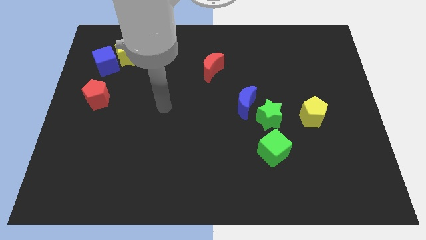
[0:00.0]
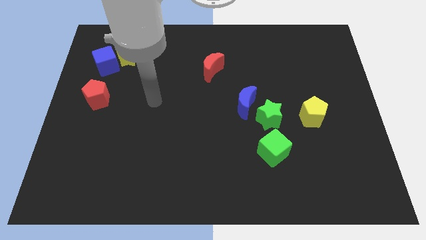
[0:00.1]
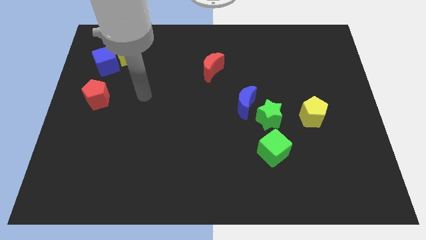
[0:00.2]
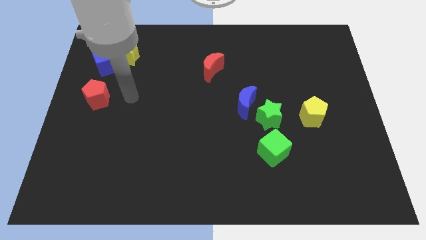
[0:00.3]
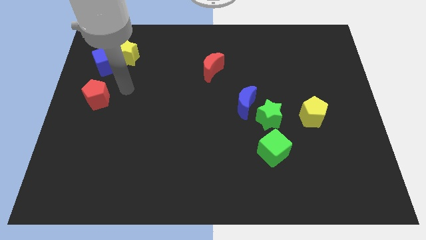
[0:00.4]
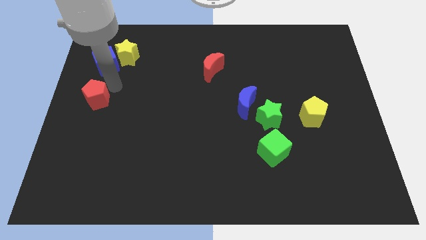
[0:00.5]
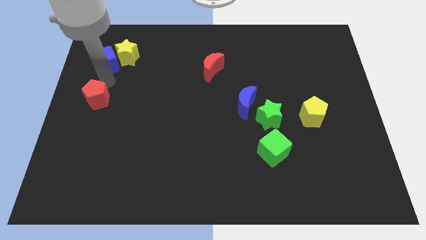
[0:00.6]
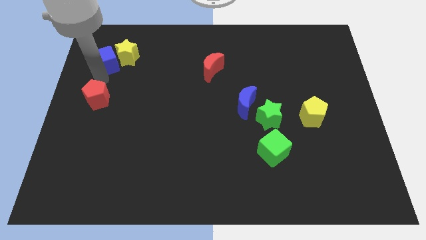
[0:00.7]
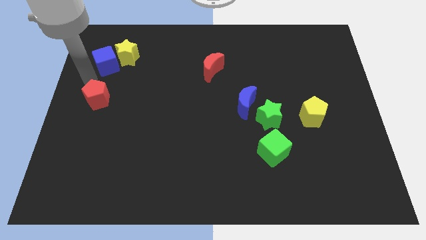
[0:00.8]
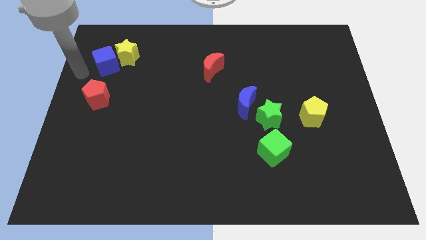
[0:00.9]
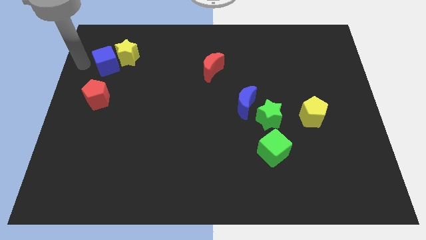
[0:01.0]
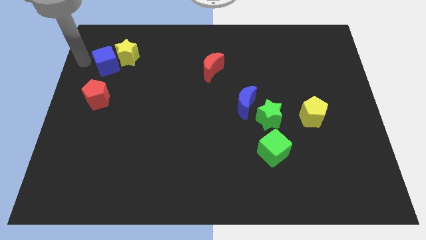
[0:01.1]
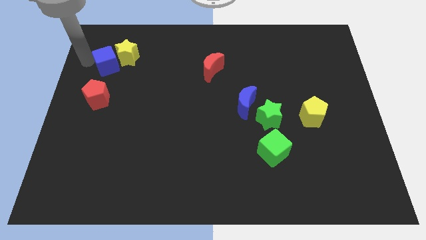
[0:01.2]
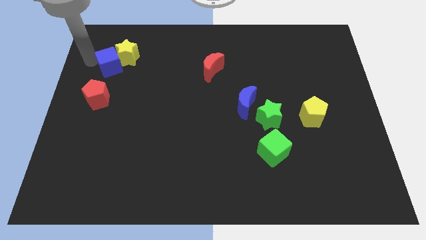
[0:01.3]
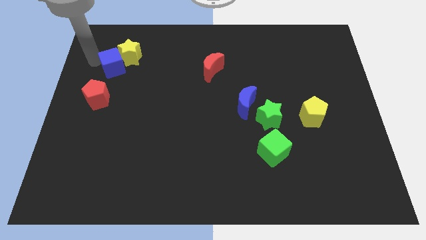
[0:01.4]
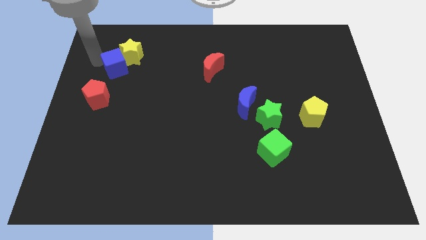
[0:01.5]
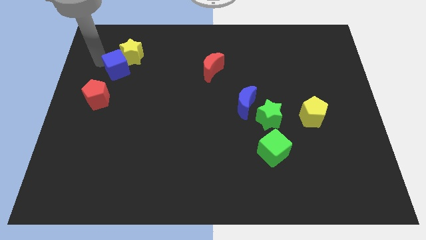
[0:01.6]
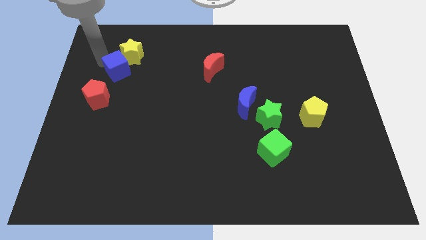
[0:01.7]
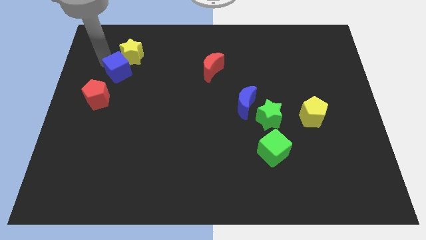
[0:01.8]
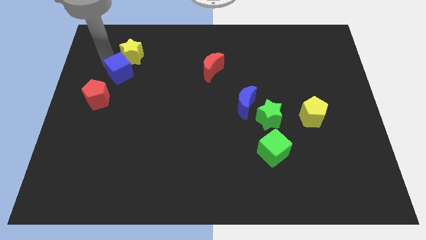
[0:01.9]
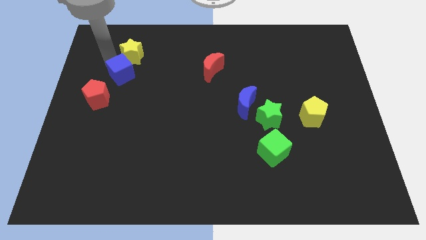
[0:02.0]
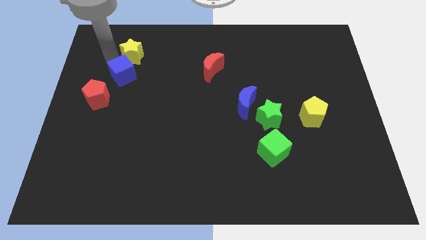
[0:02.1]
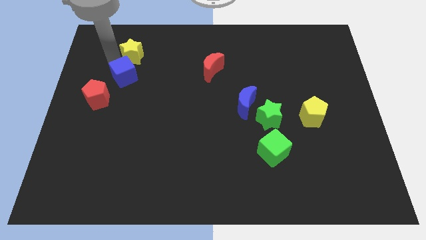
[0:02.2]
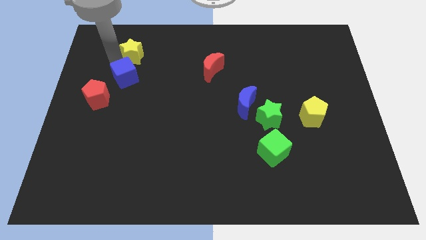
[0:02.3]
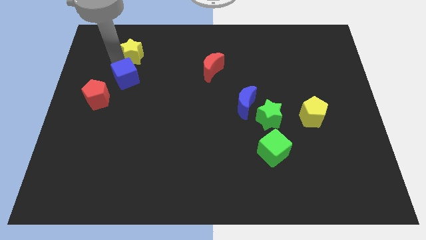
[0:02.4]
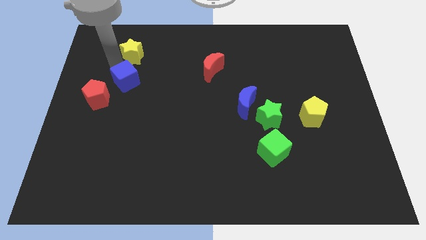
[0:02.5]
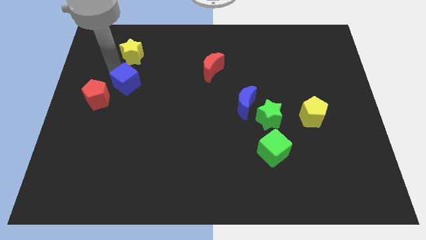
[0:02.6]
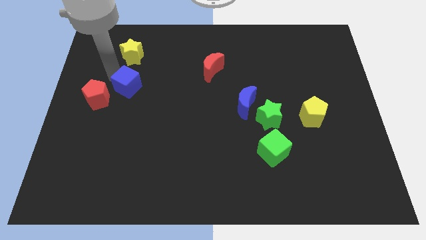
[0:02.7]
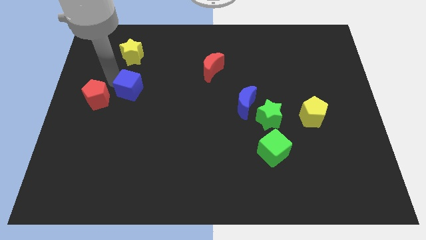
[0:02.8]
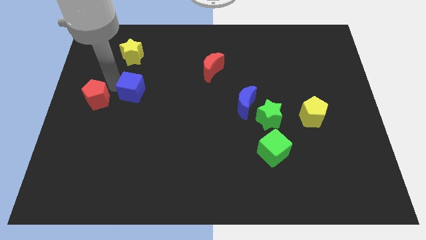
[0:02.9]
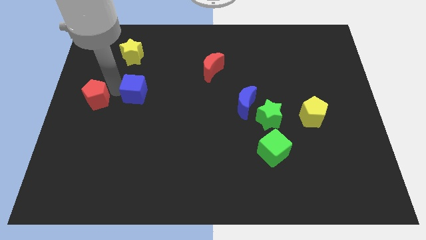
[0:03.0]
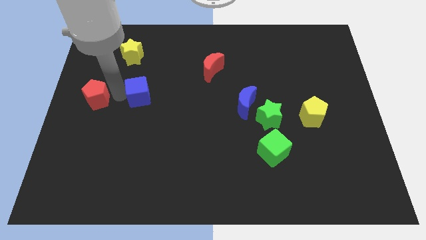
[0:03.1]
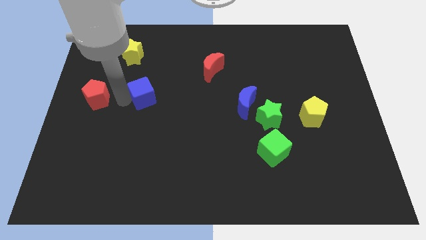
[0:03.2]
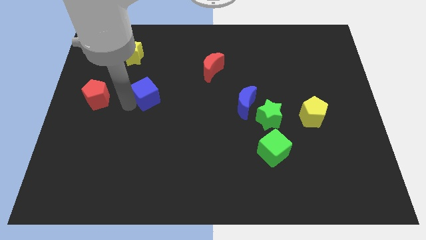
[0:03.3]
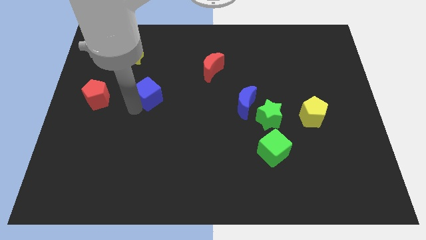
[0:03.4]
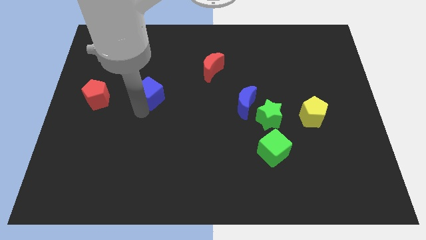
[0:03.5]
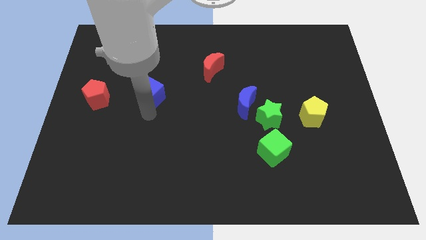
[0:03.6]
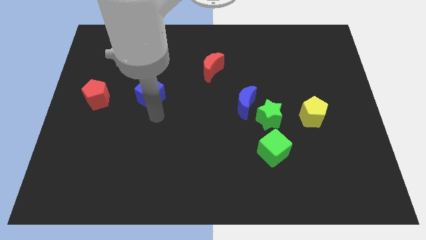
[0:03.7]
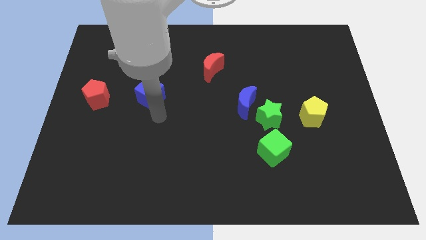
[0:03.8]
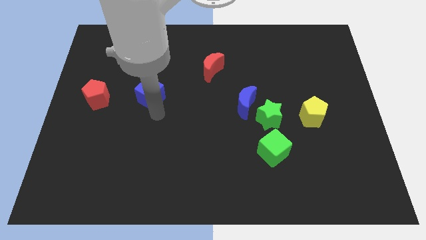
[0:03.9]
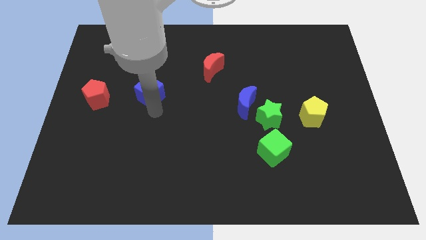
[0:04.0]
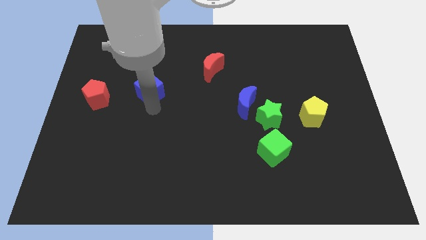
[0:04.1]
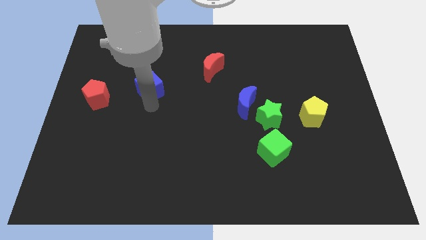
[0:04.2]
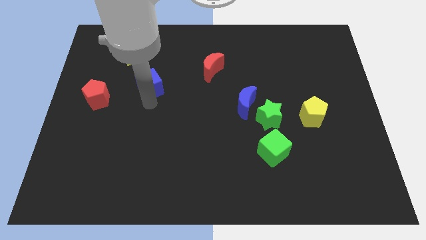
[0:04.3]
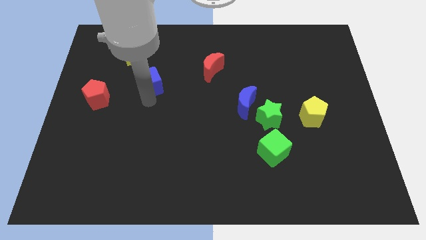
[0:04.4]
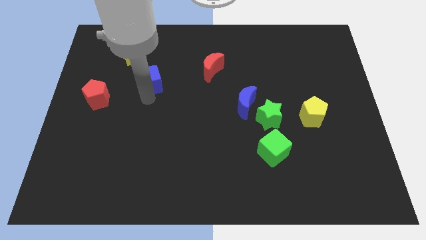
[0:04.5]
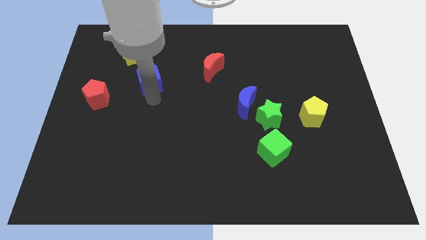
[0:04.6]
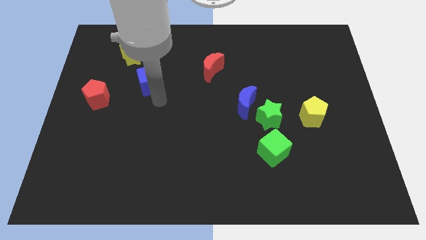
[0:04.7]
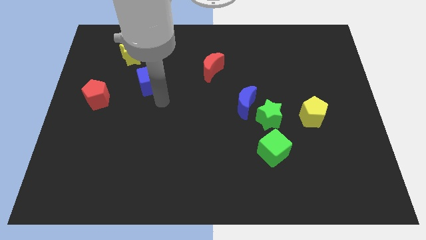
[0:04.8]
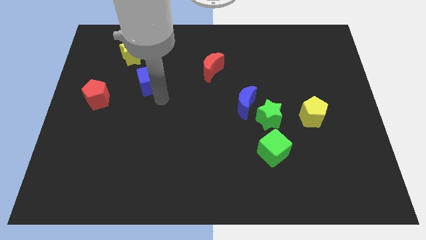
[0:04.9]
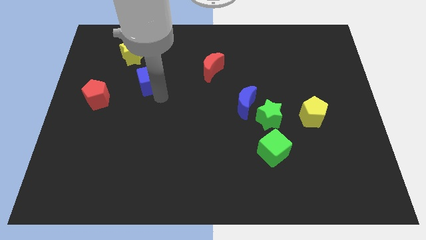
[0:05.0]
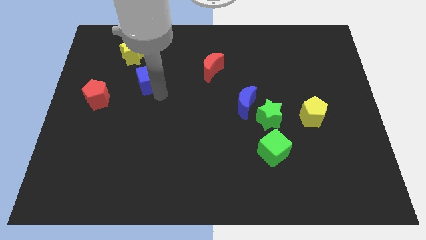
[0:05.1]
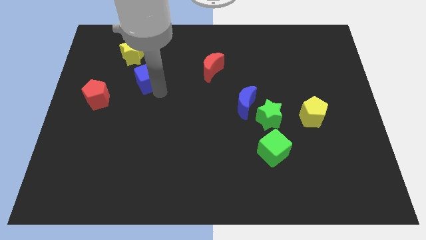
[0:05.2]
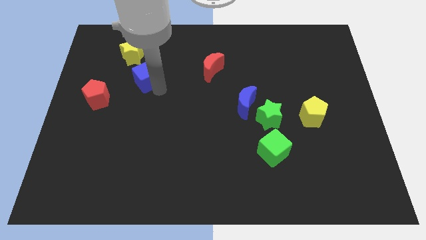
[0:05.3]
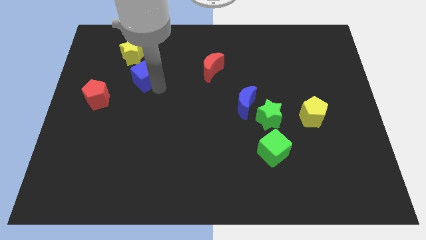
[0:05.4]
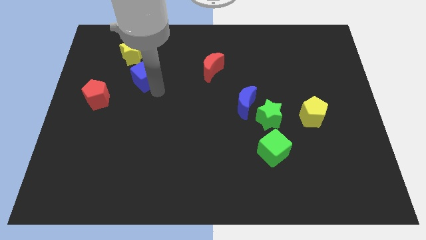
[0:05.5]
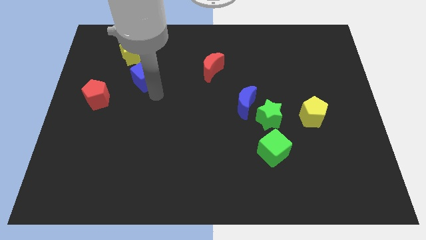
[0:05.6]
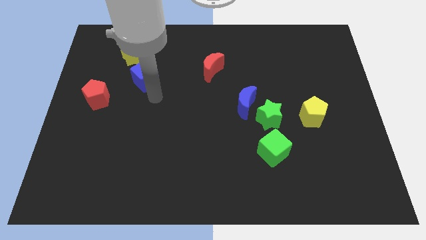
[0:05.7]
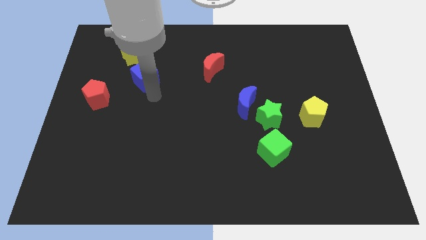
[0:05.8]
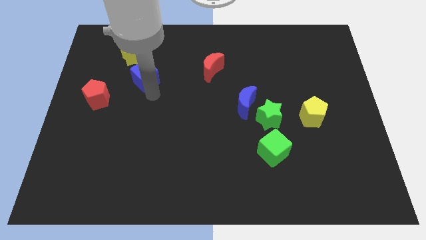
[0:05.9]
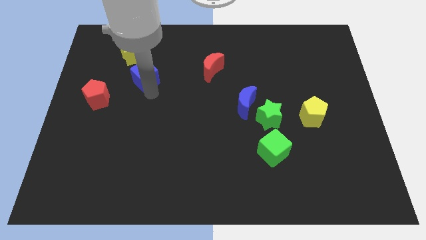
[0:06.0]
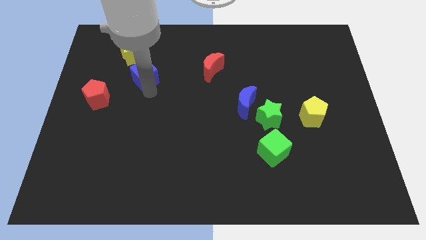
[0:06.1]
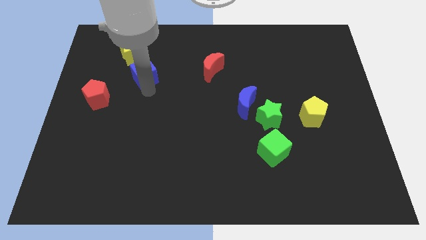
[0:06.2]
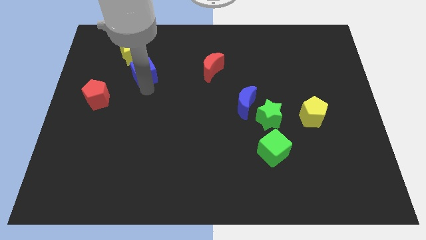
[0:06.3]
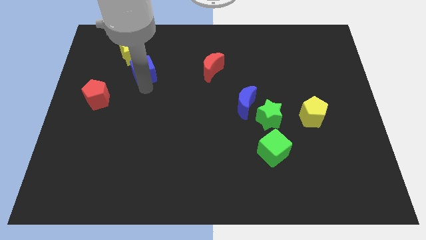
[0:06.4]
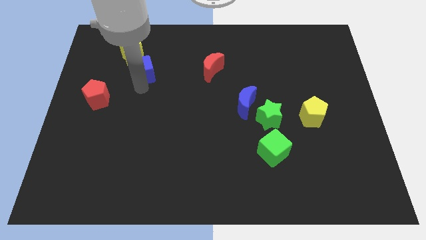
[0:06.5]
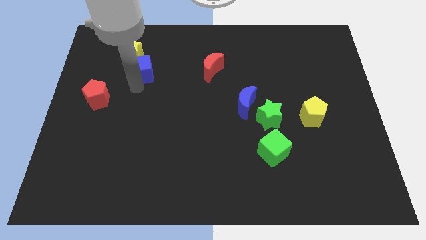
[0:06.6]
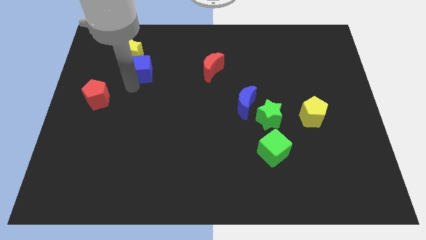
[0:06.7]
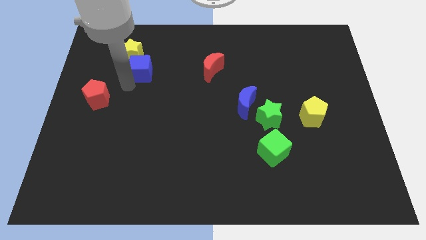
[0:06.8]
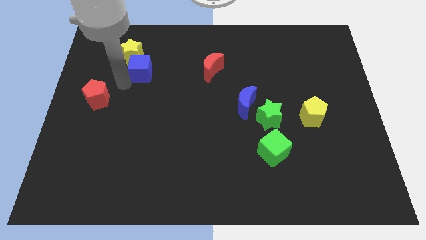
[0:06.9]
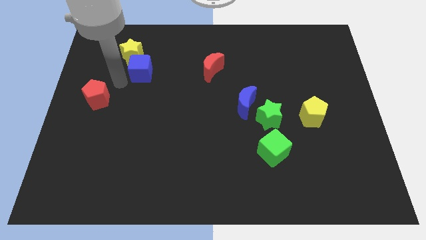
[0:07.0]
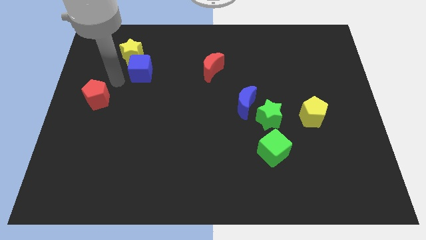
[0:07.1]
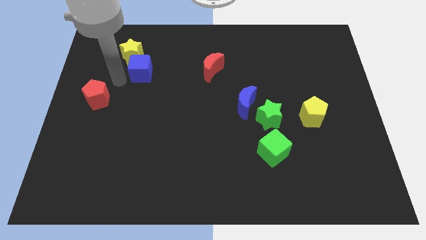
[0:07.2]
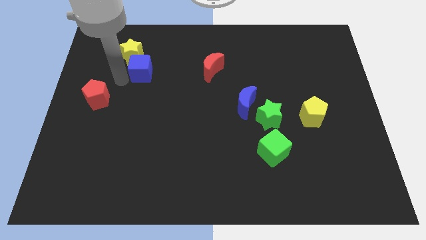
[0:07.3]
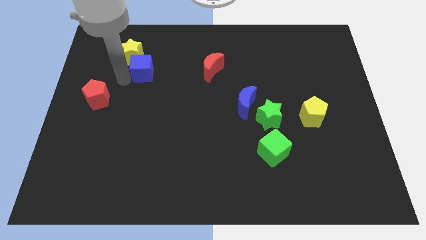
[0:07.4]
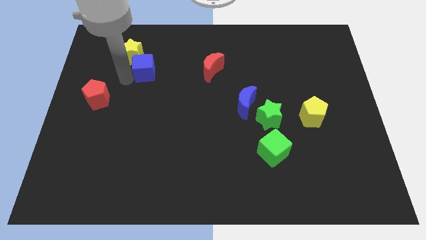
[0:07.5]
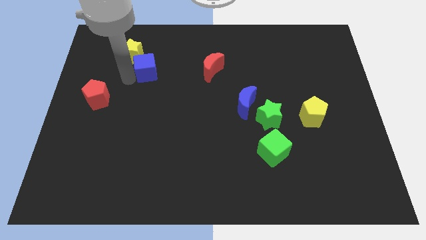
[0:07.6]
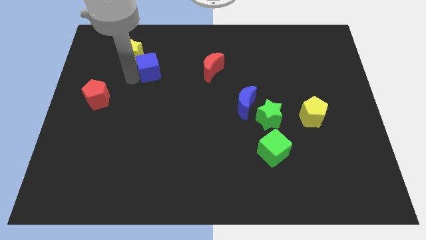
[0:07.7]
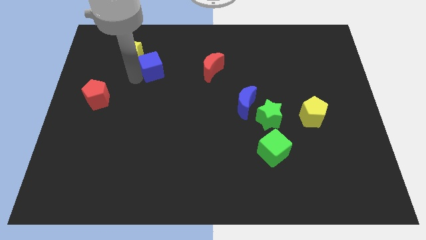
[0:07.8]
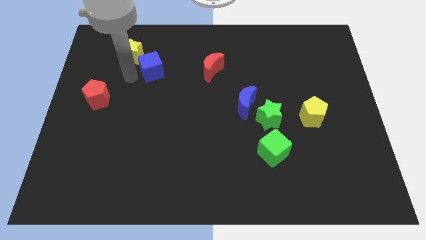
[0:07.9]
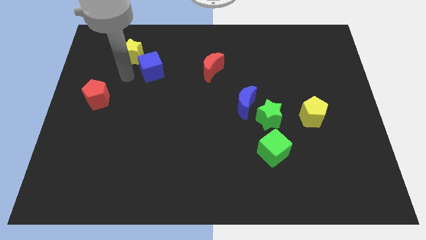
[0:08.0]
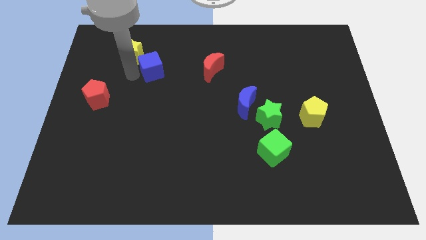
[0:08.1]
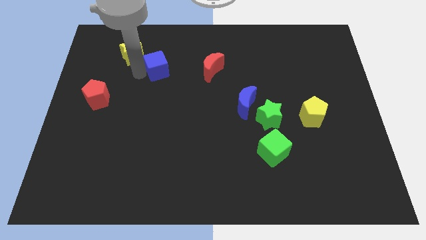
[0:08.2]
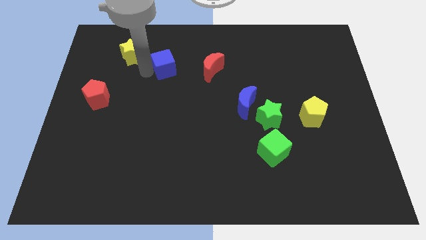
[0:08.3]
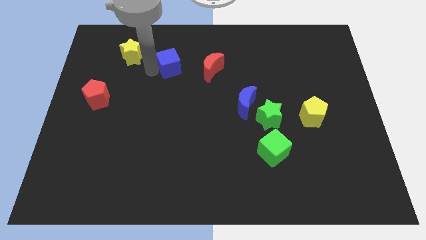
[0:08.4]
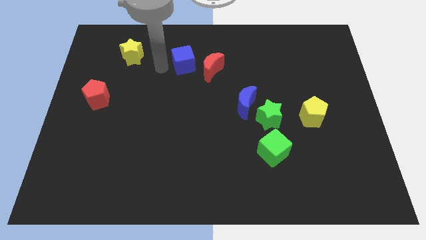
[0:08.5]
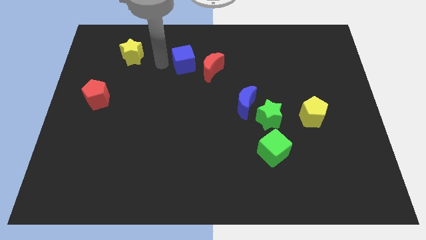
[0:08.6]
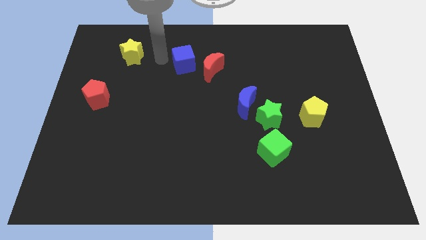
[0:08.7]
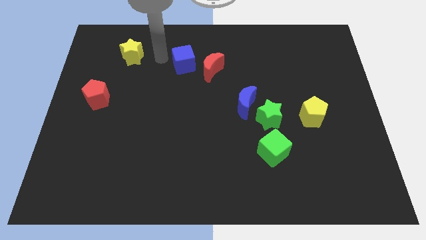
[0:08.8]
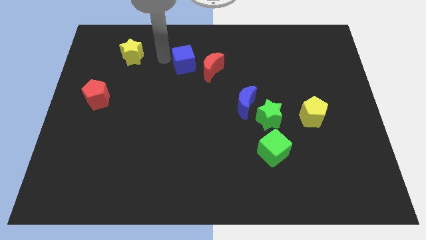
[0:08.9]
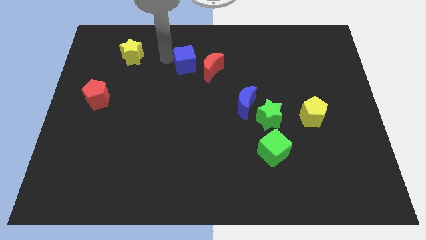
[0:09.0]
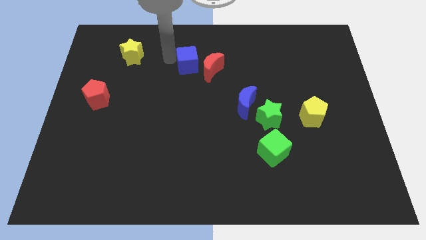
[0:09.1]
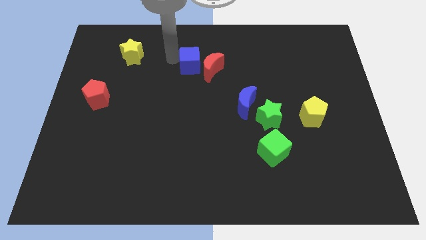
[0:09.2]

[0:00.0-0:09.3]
put the blue cube next to the red moon
